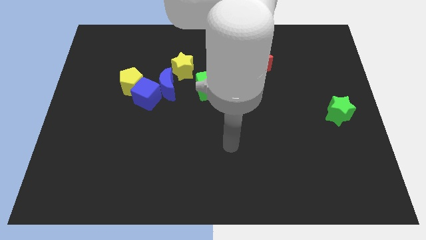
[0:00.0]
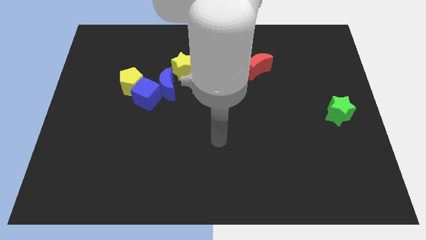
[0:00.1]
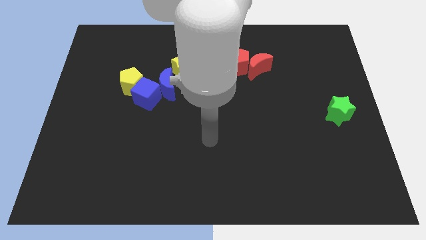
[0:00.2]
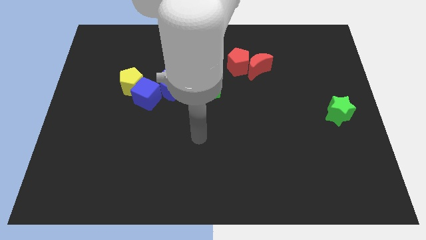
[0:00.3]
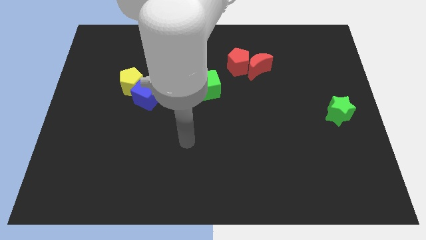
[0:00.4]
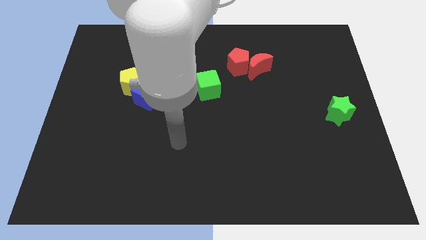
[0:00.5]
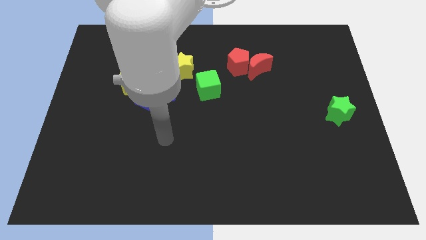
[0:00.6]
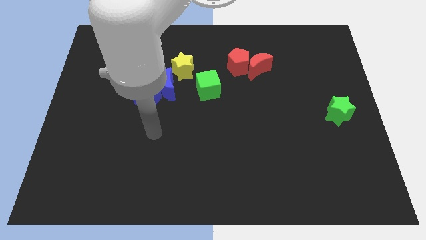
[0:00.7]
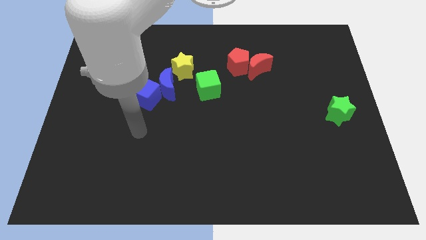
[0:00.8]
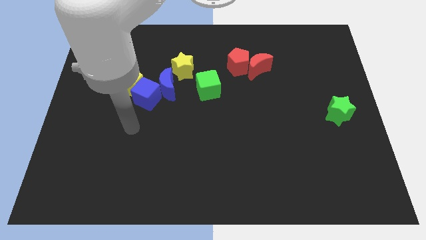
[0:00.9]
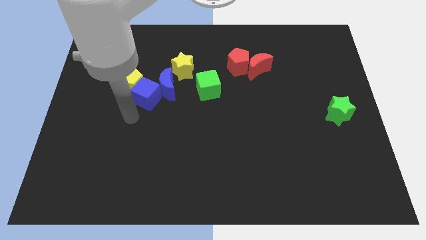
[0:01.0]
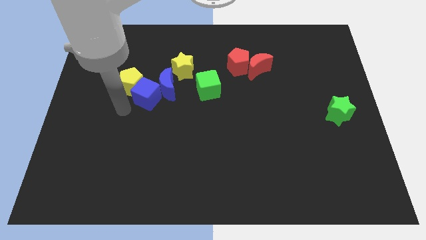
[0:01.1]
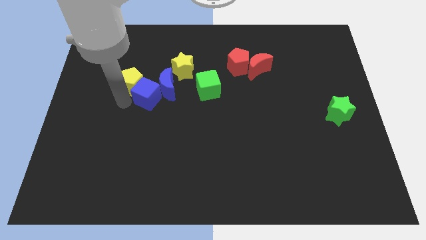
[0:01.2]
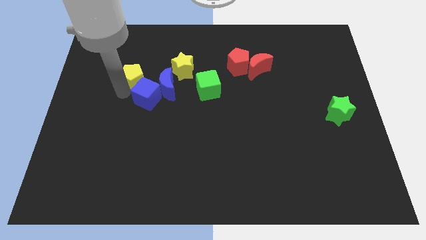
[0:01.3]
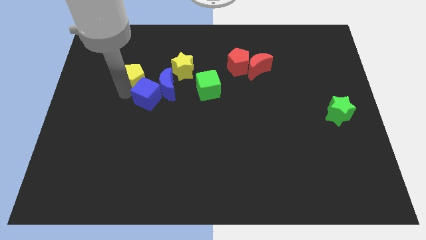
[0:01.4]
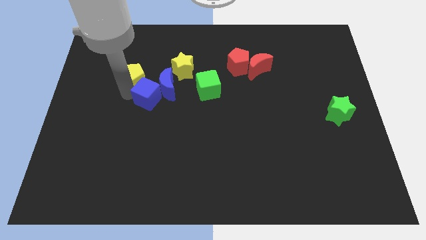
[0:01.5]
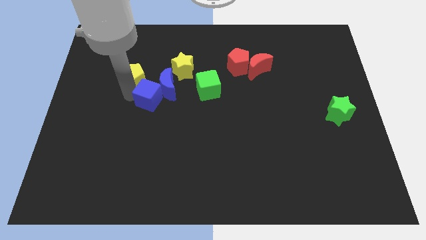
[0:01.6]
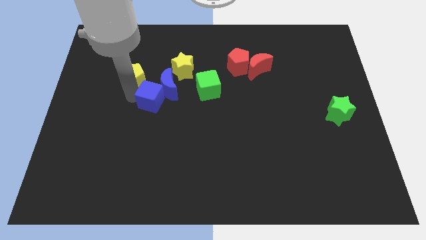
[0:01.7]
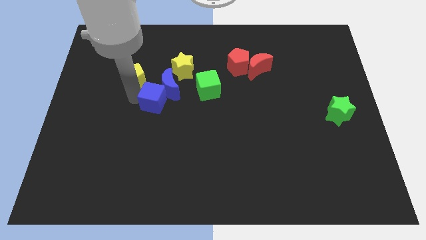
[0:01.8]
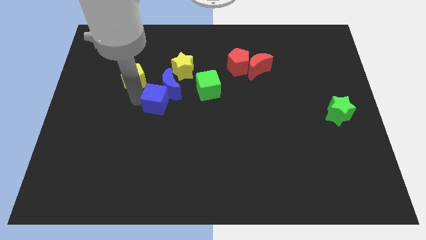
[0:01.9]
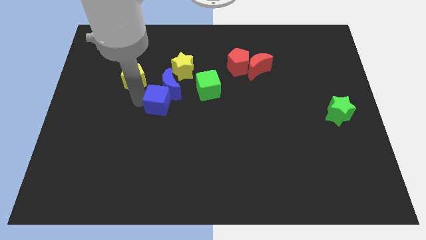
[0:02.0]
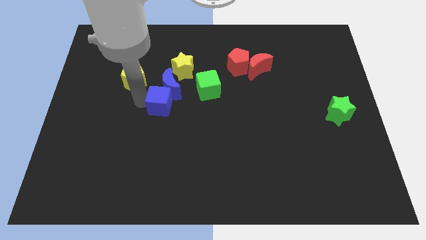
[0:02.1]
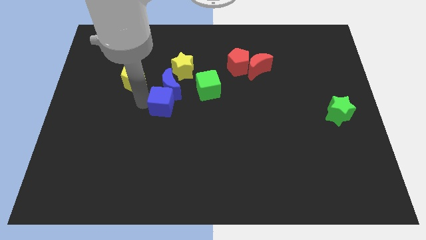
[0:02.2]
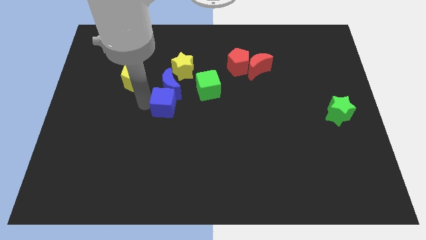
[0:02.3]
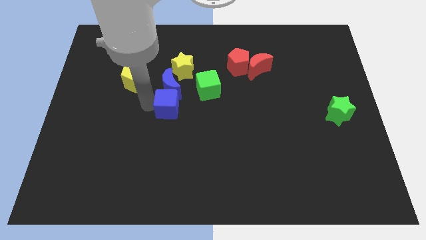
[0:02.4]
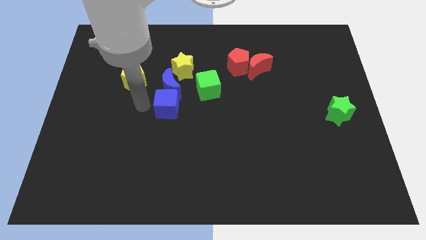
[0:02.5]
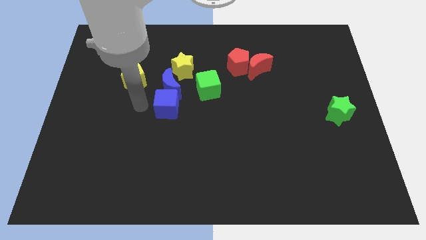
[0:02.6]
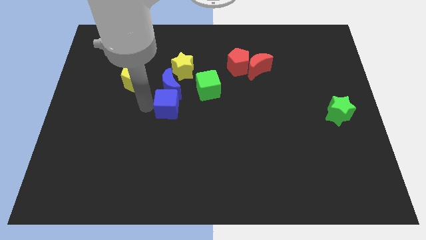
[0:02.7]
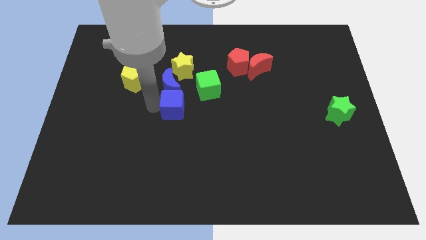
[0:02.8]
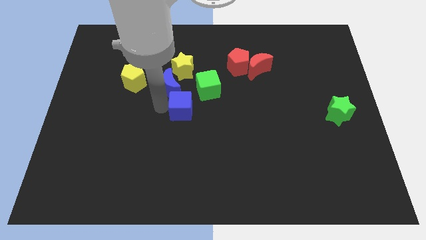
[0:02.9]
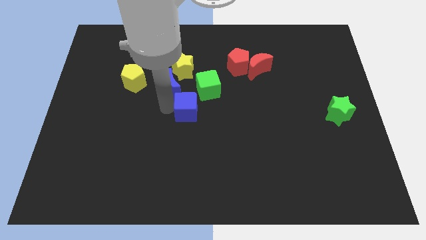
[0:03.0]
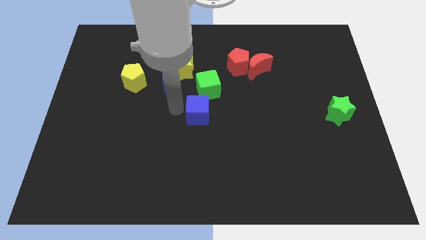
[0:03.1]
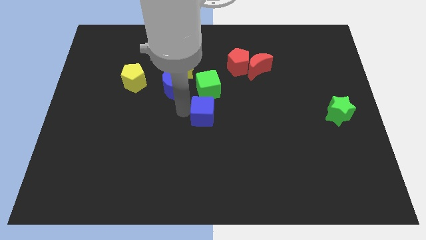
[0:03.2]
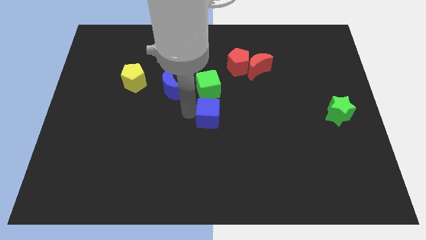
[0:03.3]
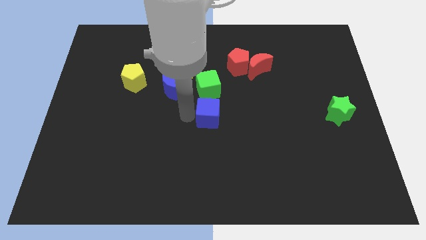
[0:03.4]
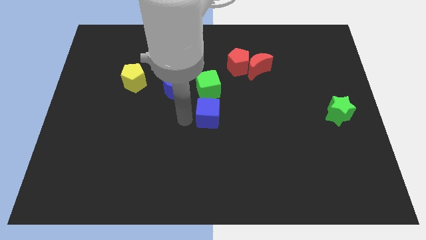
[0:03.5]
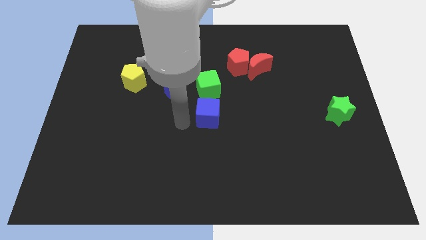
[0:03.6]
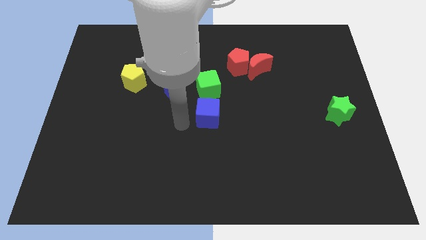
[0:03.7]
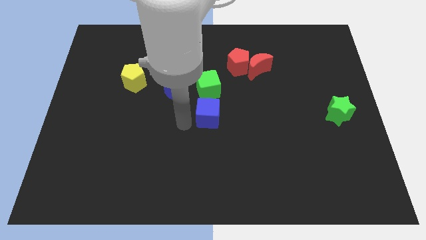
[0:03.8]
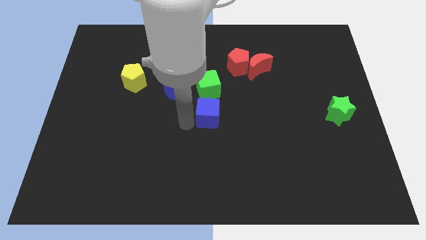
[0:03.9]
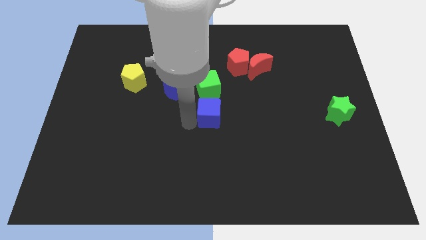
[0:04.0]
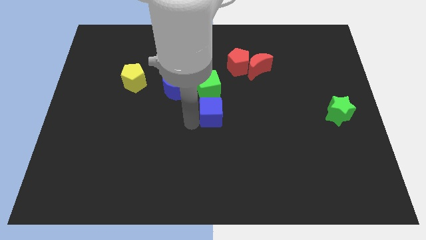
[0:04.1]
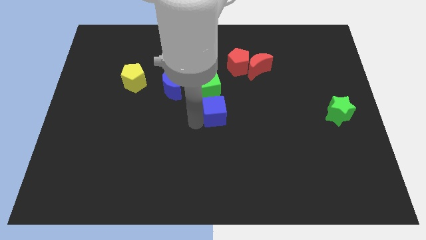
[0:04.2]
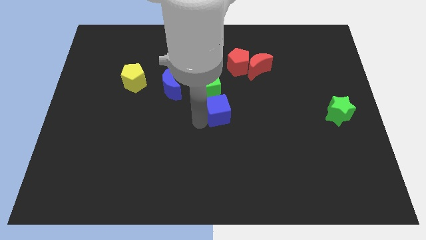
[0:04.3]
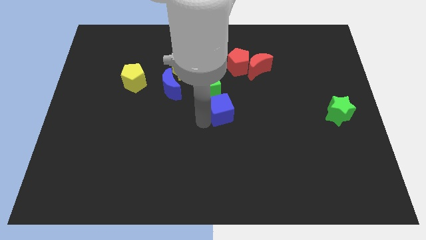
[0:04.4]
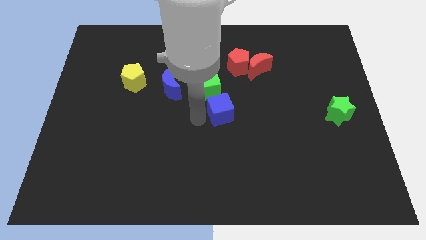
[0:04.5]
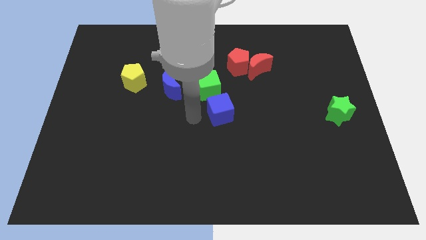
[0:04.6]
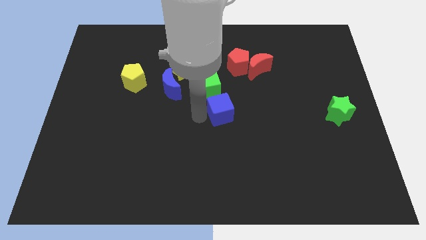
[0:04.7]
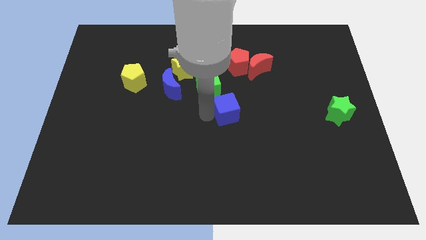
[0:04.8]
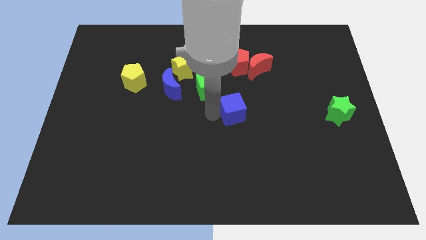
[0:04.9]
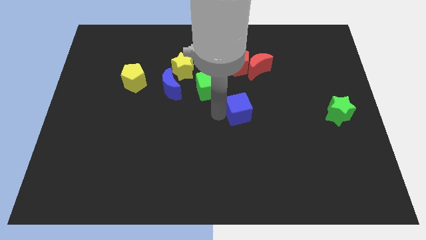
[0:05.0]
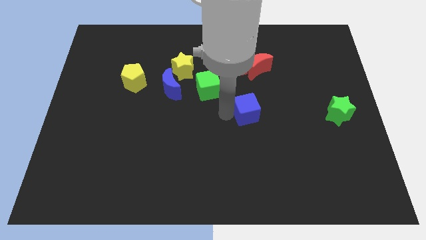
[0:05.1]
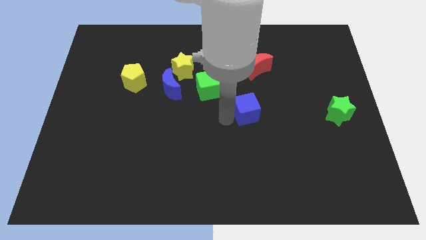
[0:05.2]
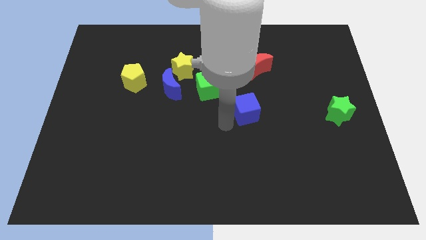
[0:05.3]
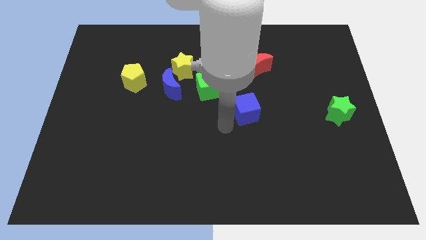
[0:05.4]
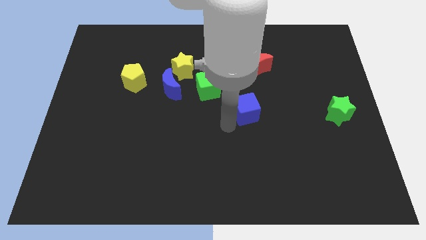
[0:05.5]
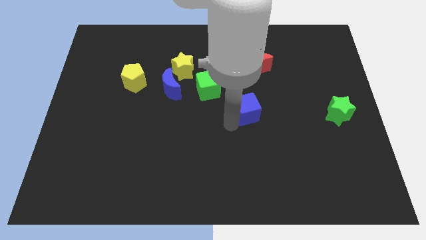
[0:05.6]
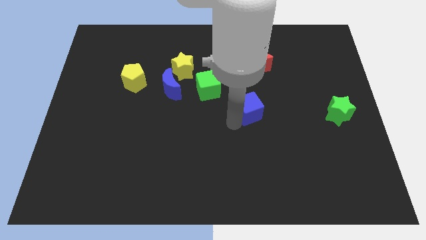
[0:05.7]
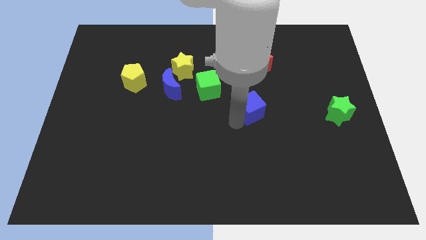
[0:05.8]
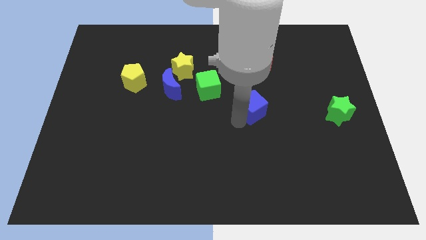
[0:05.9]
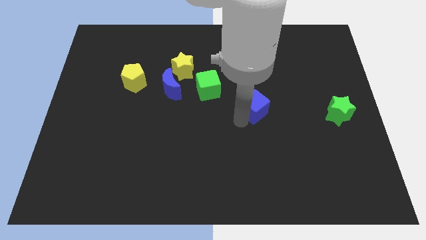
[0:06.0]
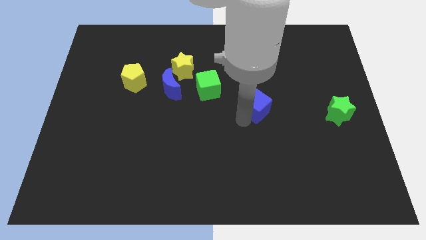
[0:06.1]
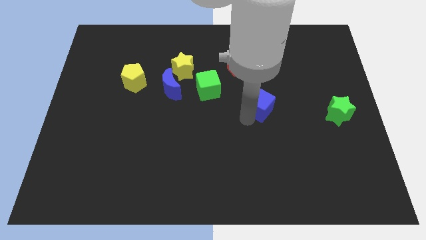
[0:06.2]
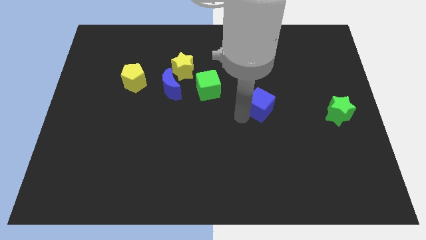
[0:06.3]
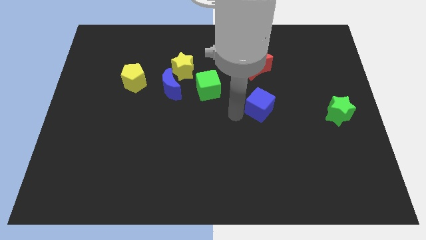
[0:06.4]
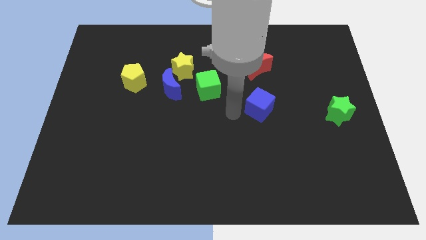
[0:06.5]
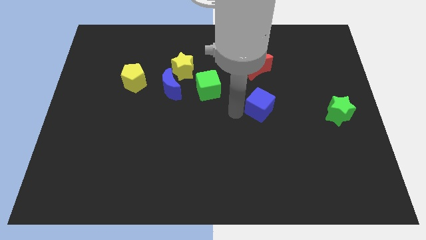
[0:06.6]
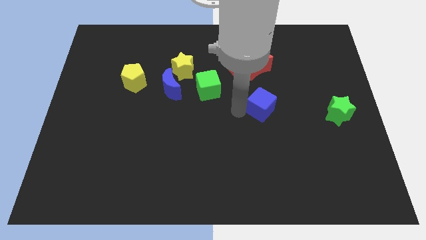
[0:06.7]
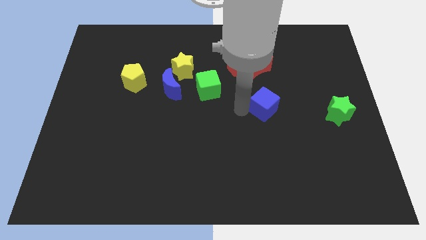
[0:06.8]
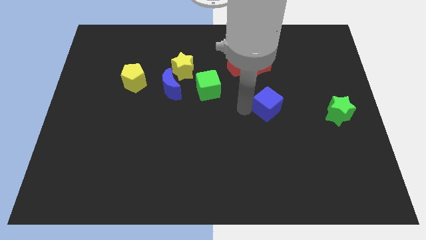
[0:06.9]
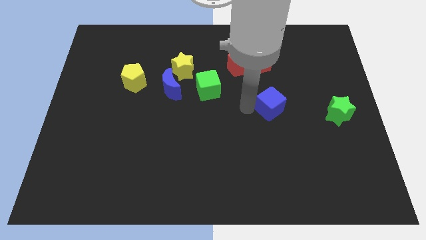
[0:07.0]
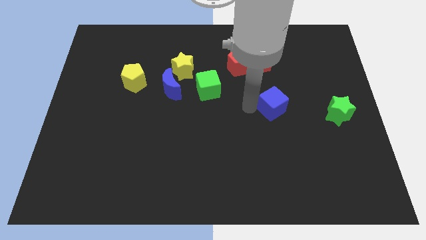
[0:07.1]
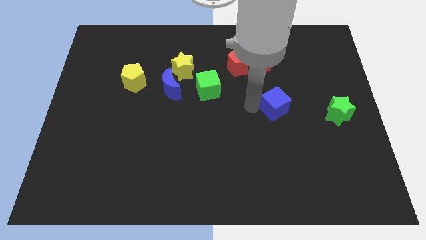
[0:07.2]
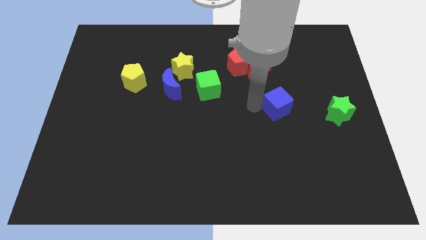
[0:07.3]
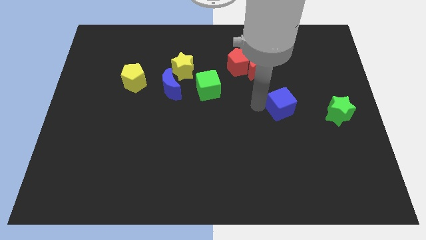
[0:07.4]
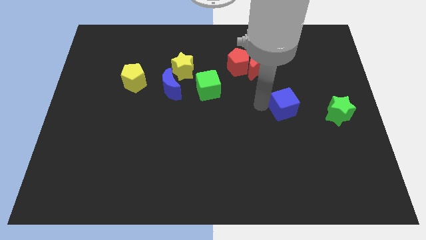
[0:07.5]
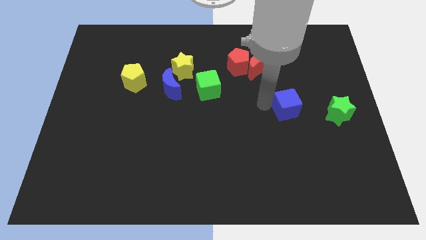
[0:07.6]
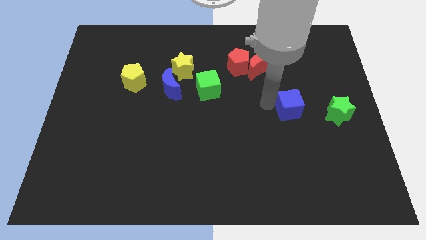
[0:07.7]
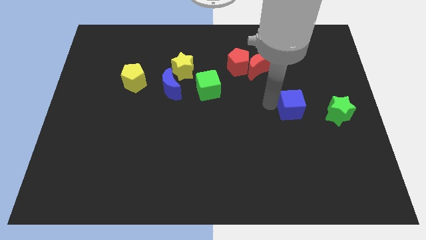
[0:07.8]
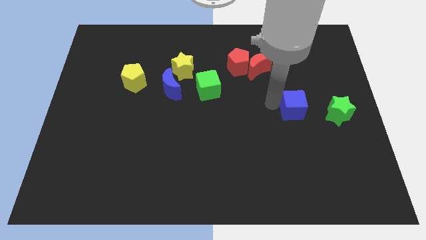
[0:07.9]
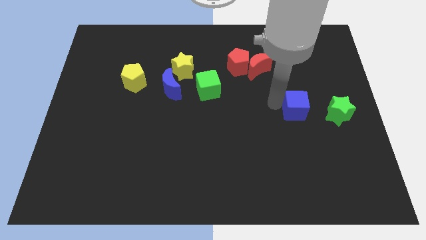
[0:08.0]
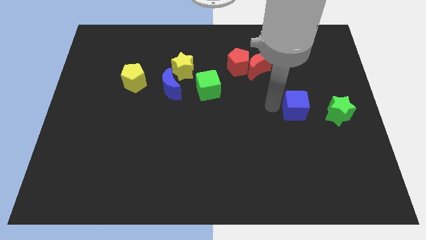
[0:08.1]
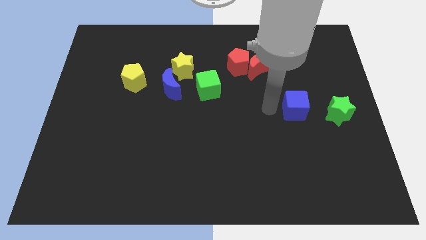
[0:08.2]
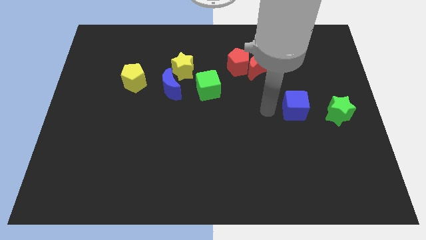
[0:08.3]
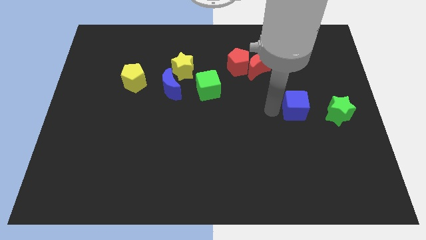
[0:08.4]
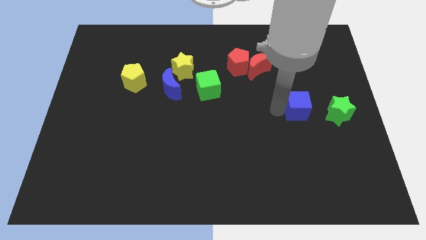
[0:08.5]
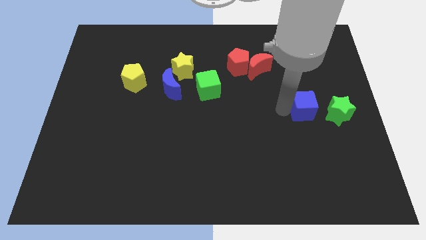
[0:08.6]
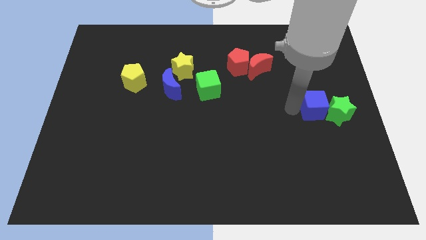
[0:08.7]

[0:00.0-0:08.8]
slide the blue cube close to the green star

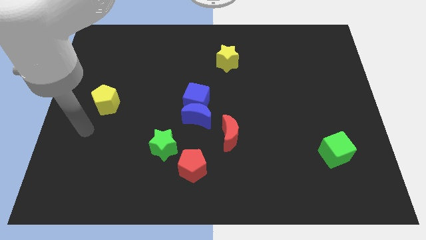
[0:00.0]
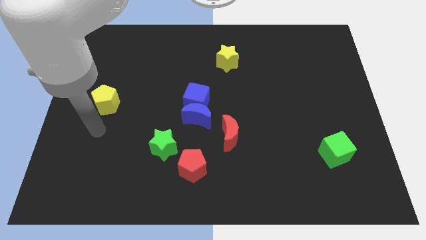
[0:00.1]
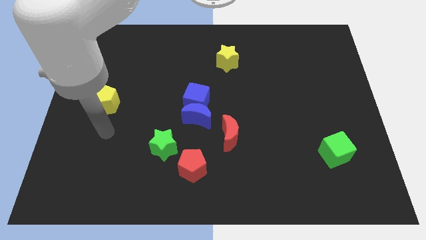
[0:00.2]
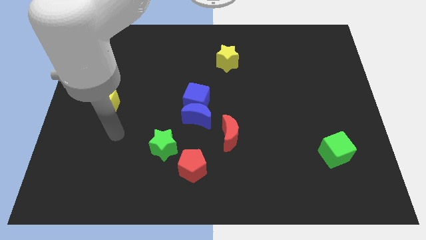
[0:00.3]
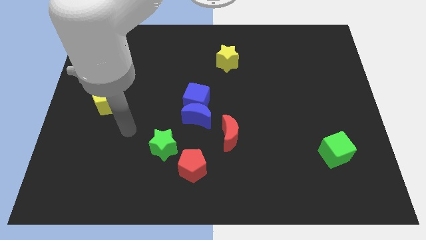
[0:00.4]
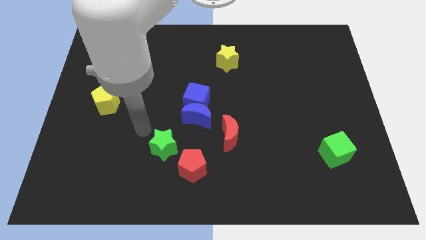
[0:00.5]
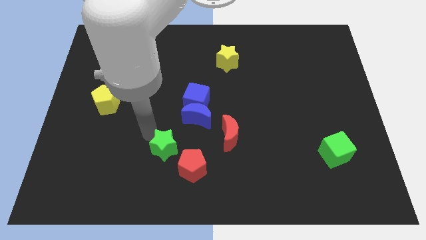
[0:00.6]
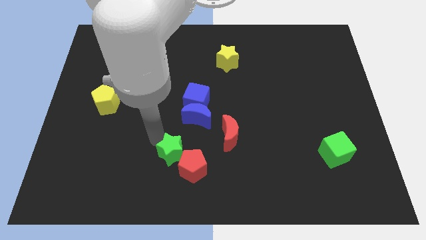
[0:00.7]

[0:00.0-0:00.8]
put the green star to the red pentagon
